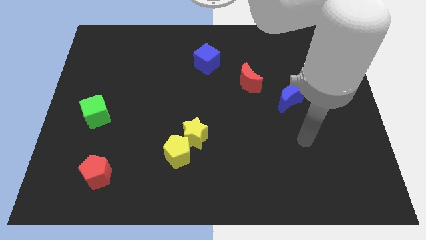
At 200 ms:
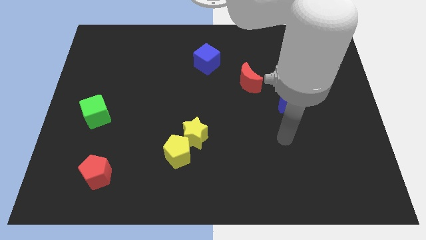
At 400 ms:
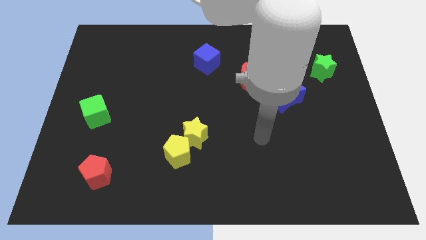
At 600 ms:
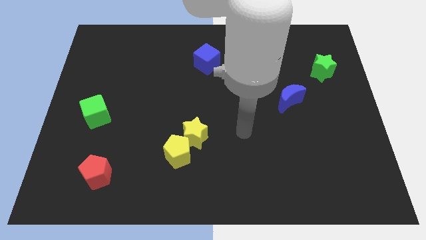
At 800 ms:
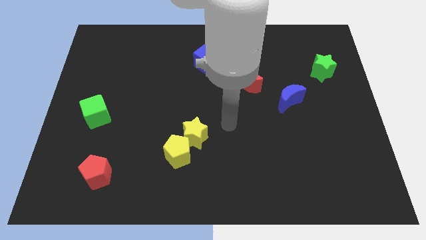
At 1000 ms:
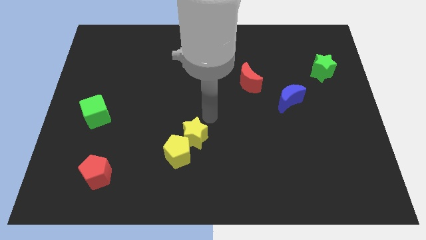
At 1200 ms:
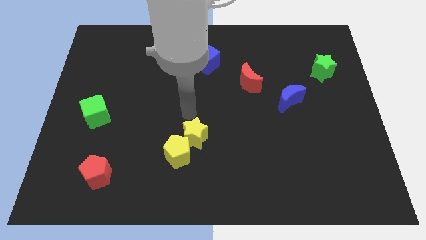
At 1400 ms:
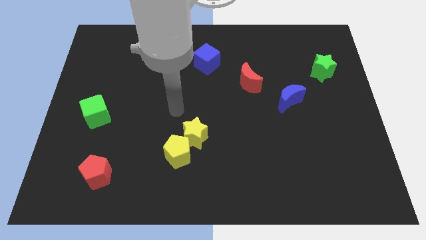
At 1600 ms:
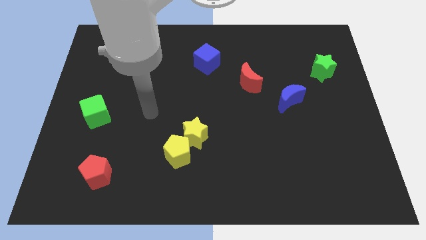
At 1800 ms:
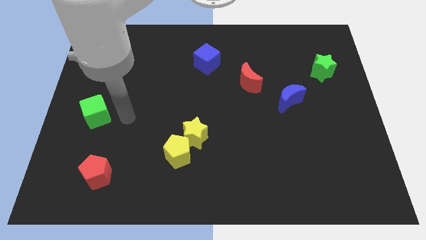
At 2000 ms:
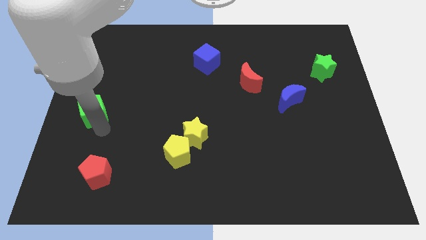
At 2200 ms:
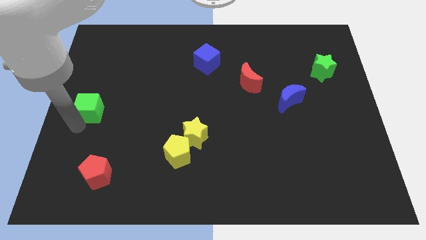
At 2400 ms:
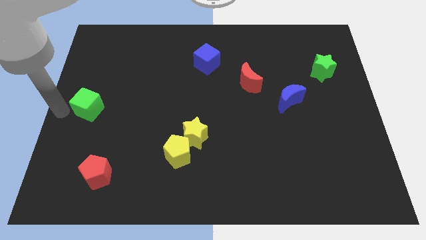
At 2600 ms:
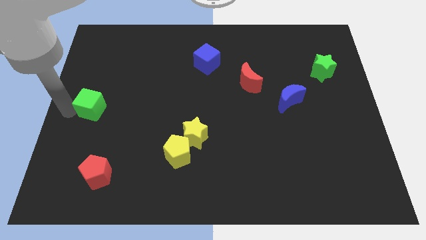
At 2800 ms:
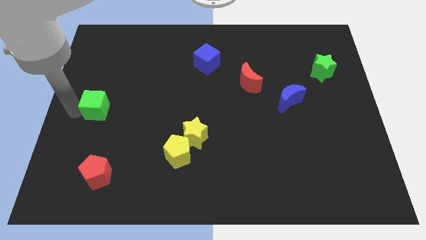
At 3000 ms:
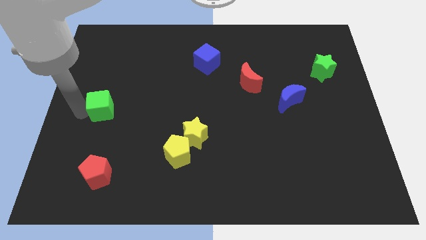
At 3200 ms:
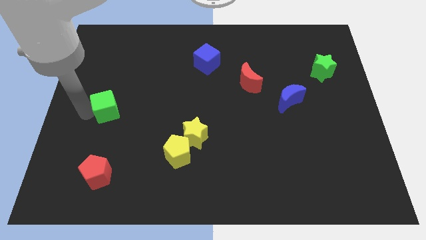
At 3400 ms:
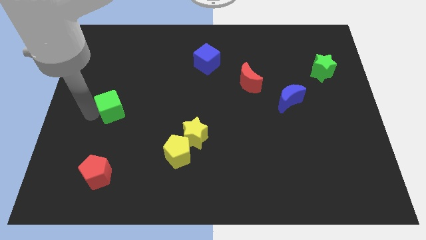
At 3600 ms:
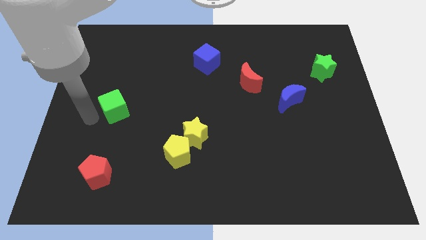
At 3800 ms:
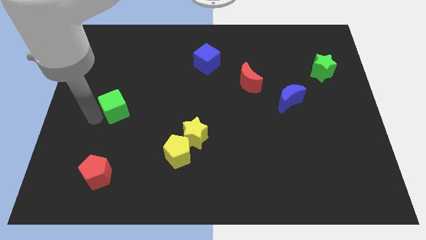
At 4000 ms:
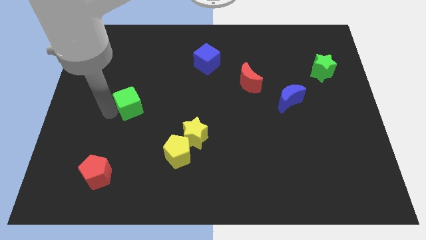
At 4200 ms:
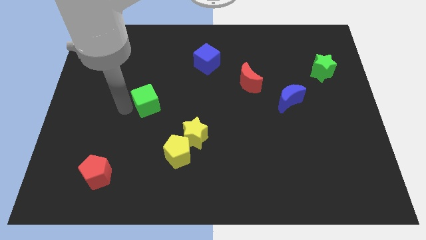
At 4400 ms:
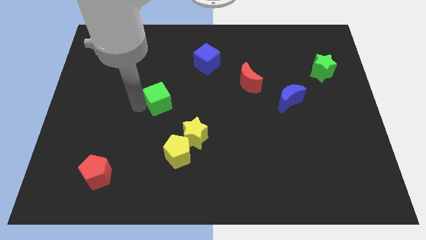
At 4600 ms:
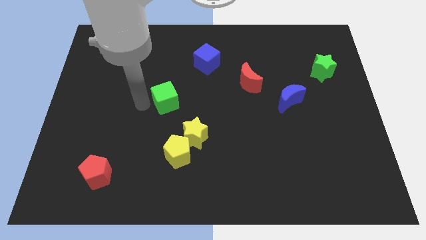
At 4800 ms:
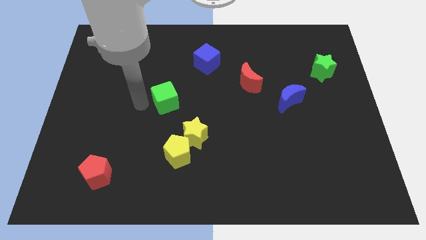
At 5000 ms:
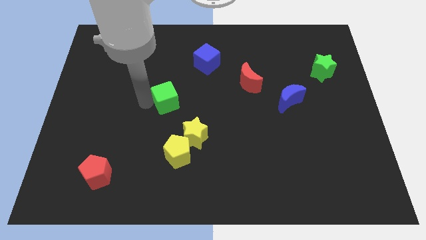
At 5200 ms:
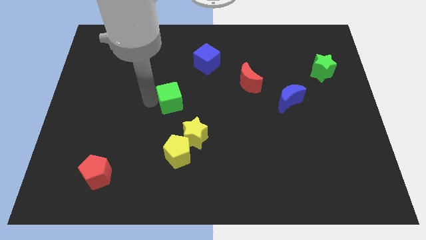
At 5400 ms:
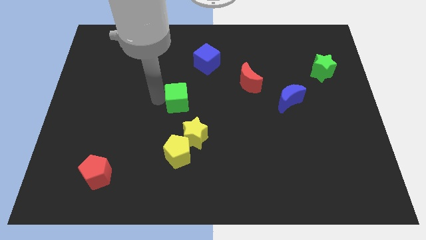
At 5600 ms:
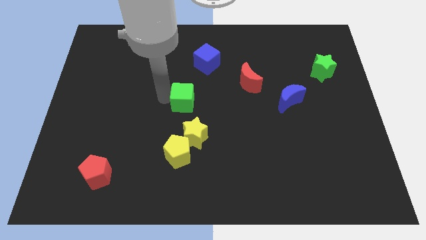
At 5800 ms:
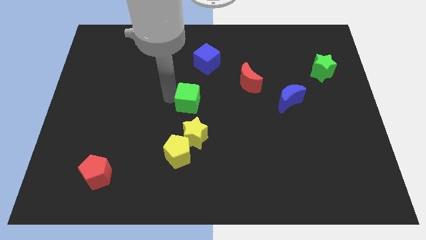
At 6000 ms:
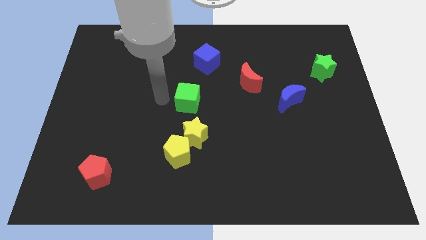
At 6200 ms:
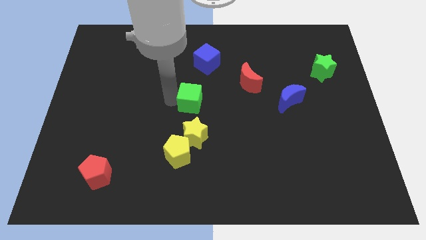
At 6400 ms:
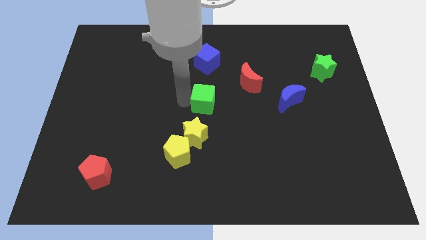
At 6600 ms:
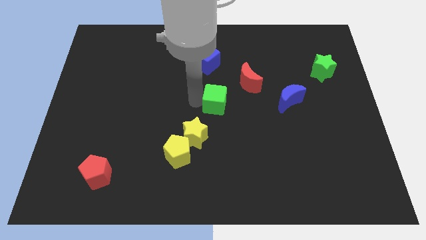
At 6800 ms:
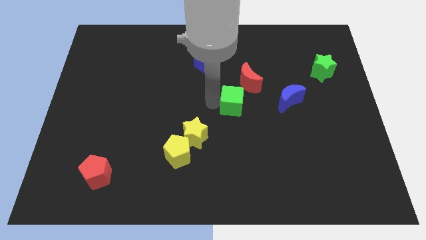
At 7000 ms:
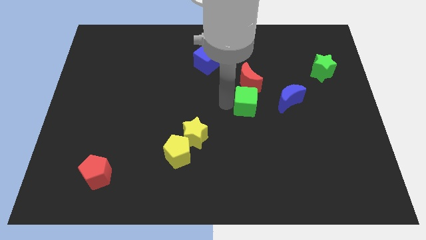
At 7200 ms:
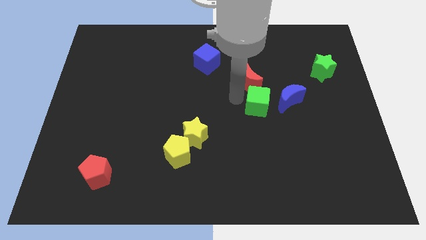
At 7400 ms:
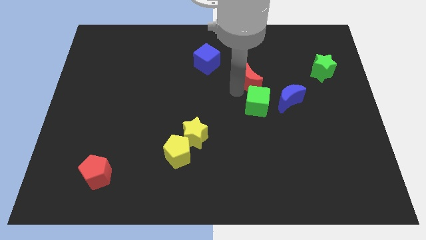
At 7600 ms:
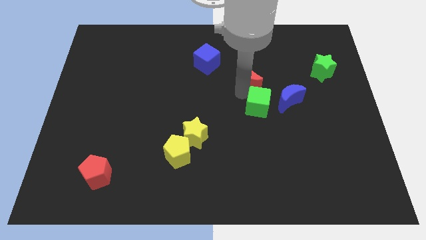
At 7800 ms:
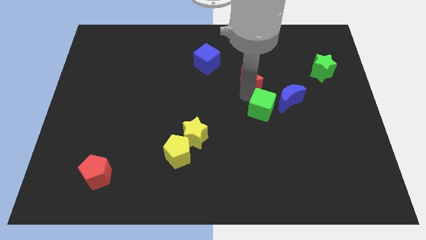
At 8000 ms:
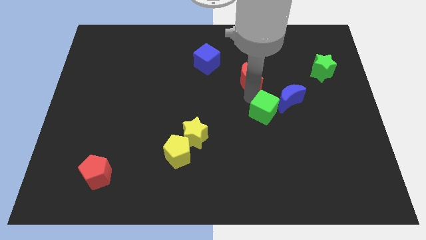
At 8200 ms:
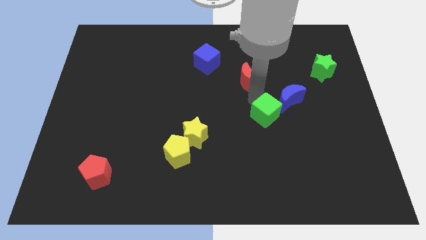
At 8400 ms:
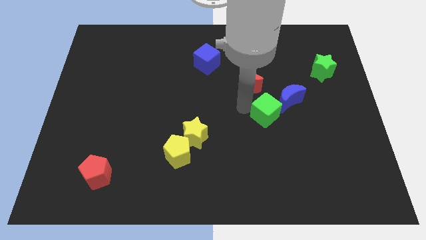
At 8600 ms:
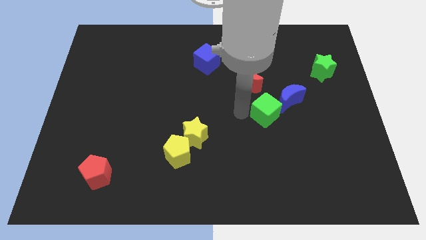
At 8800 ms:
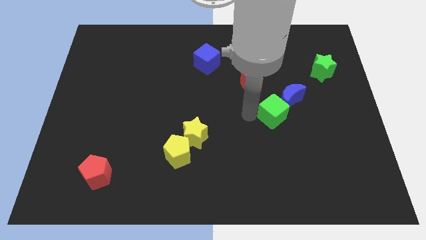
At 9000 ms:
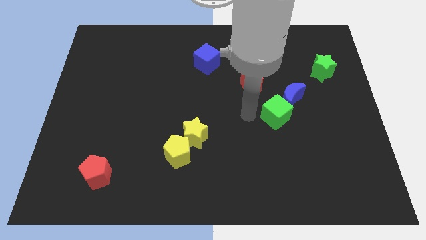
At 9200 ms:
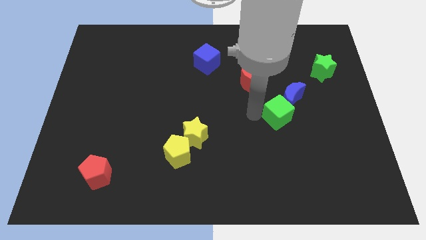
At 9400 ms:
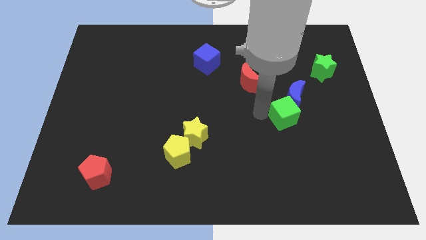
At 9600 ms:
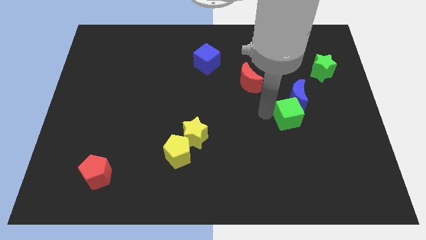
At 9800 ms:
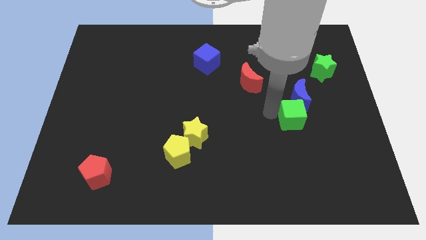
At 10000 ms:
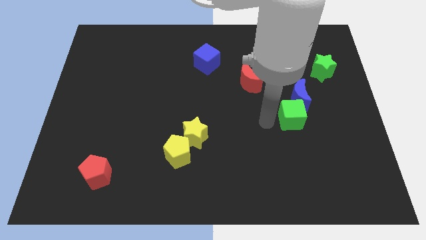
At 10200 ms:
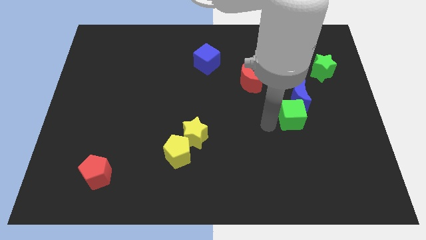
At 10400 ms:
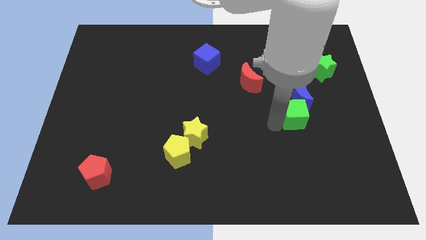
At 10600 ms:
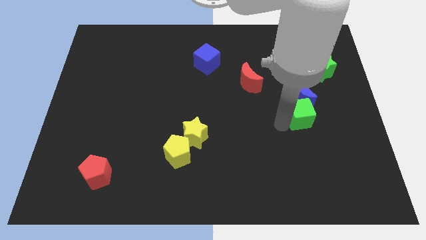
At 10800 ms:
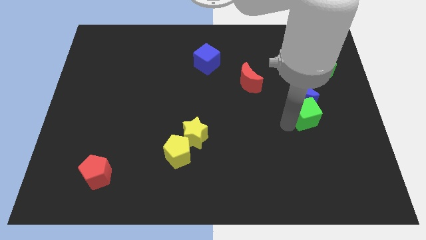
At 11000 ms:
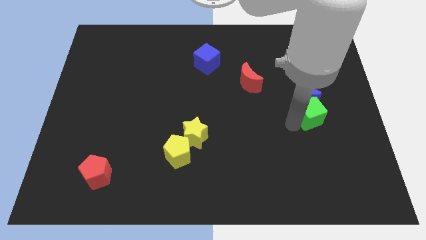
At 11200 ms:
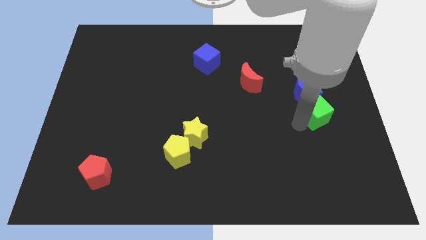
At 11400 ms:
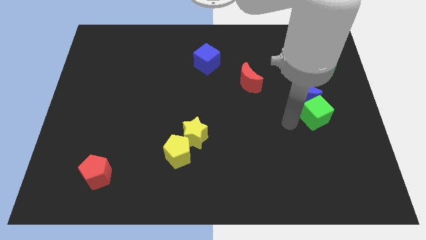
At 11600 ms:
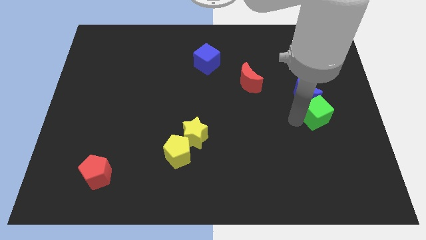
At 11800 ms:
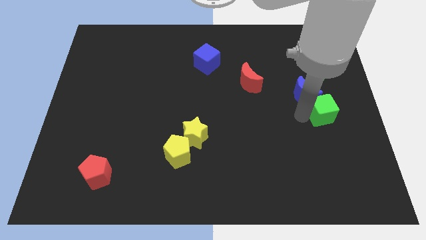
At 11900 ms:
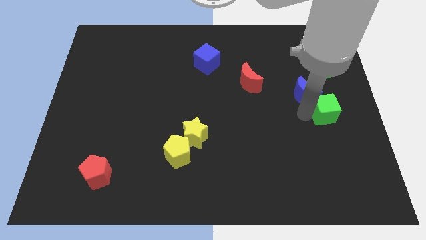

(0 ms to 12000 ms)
push the green cube to the center right
